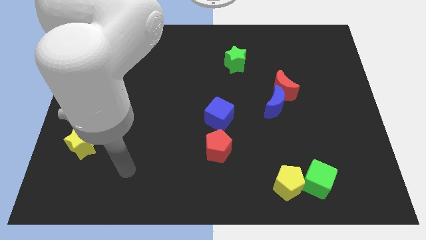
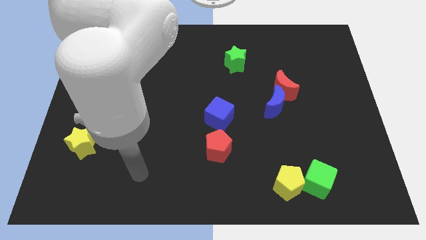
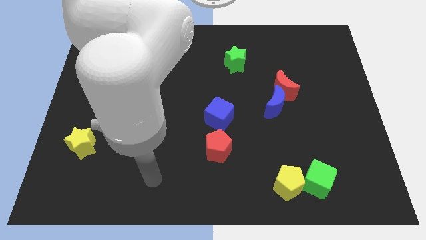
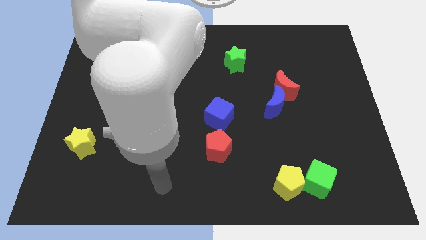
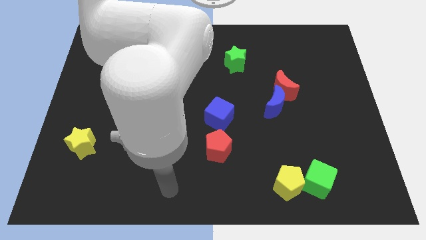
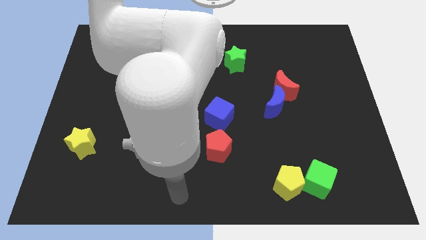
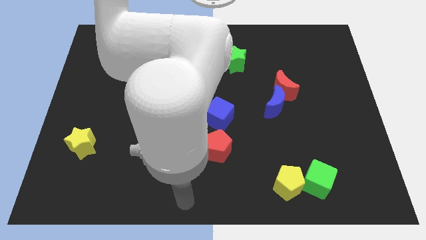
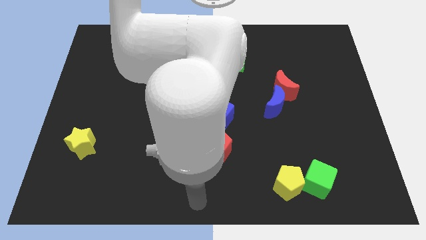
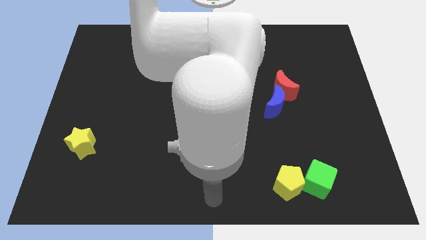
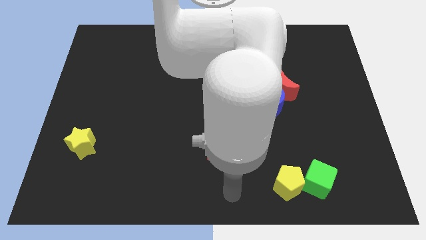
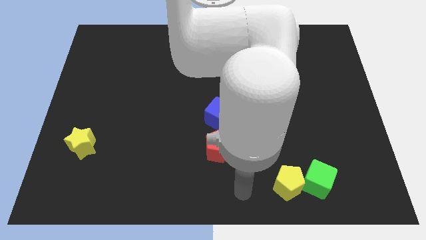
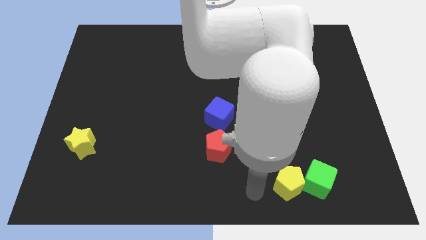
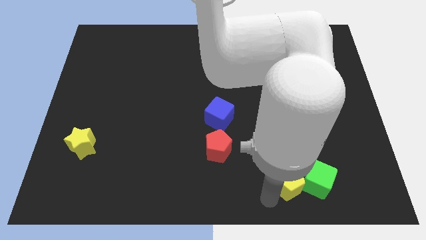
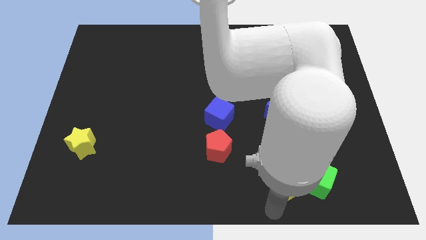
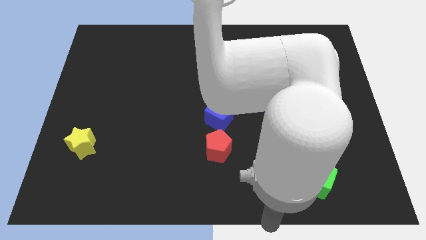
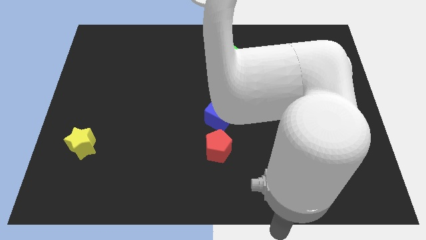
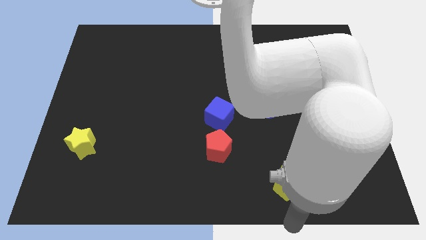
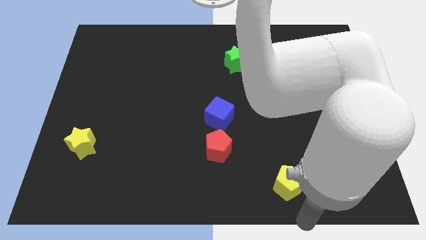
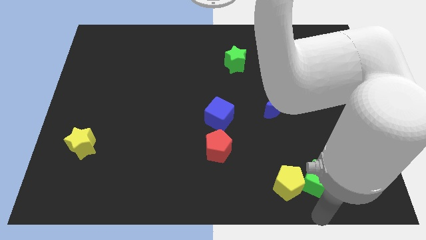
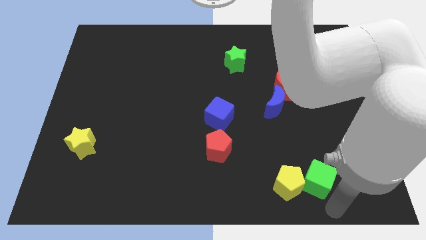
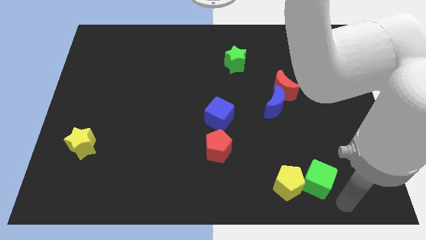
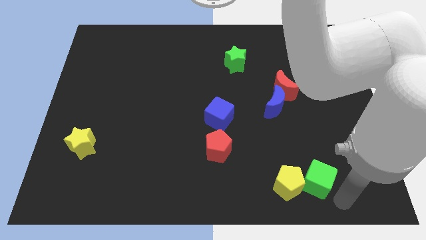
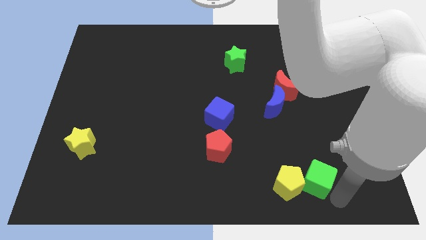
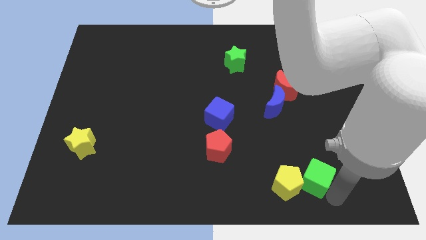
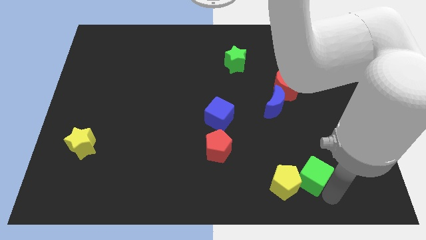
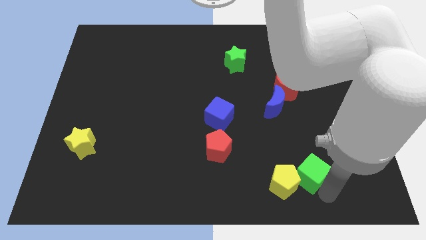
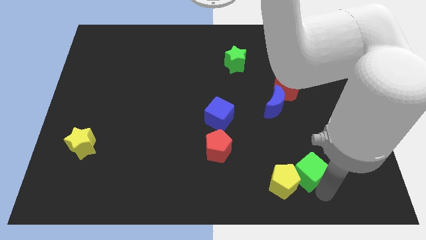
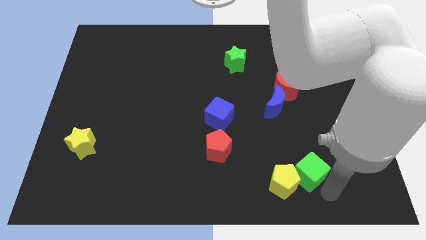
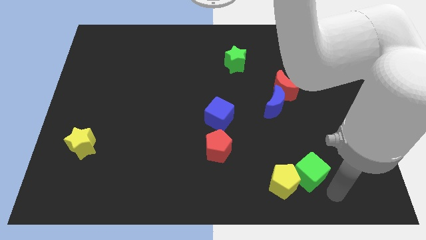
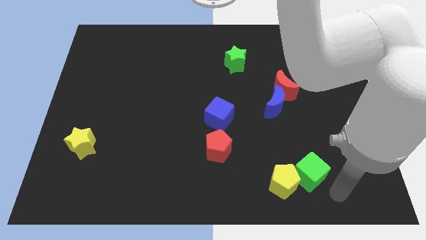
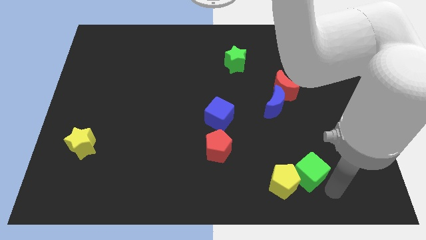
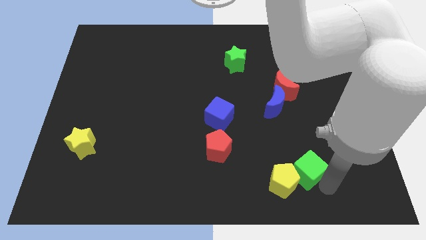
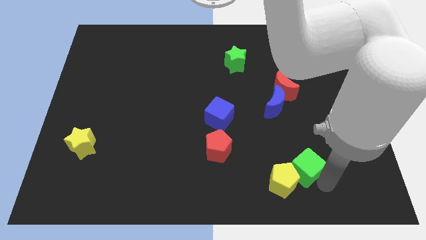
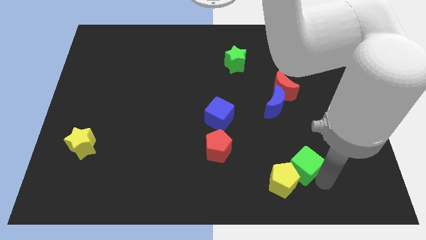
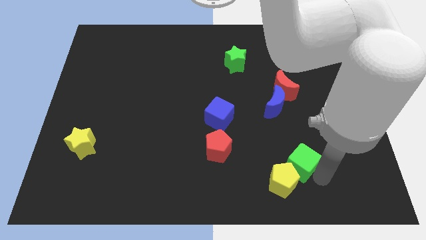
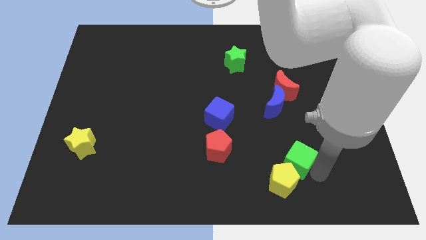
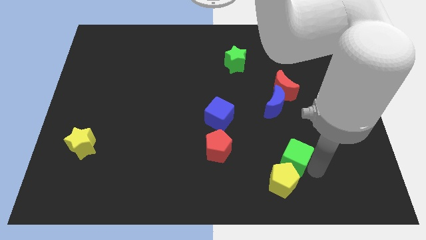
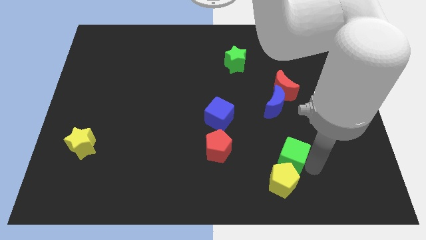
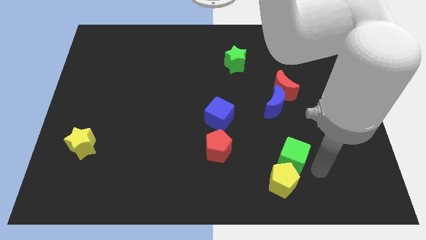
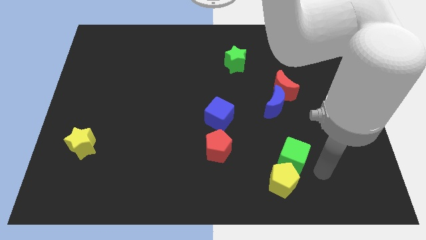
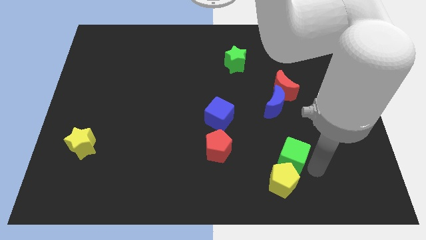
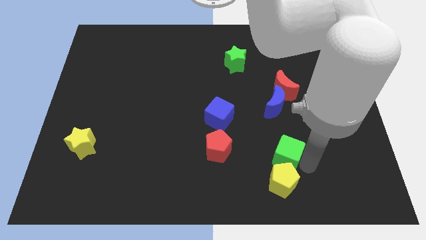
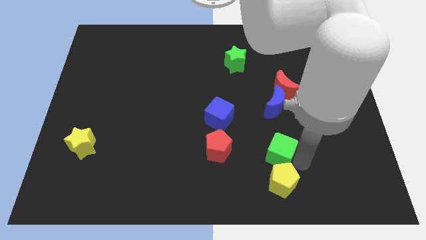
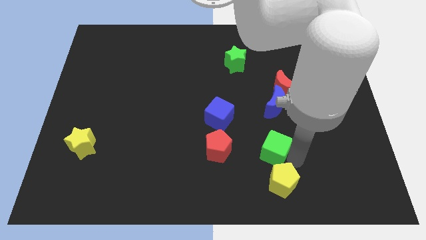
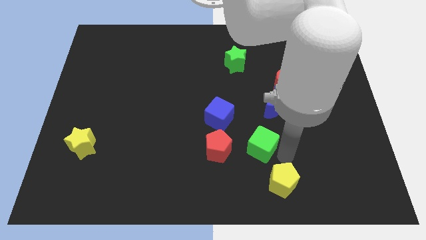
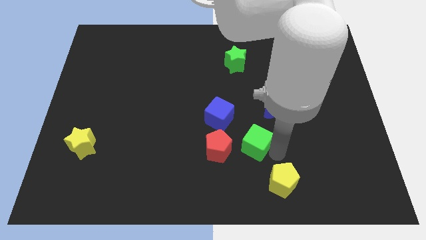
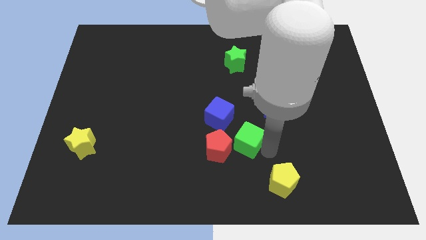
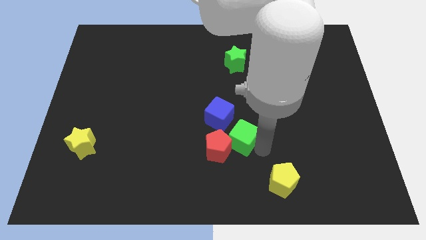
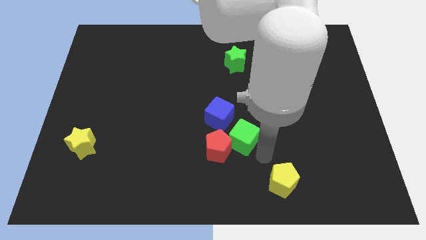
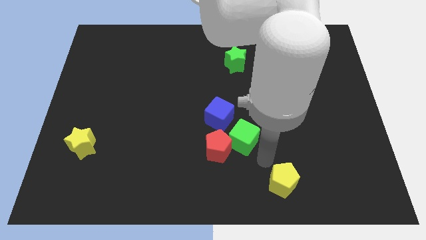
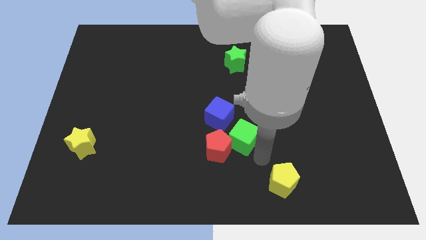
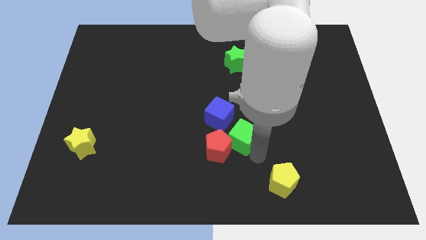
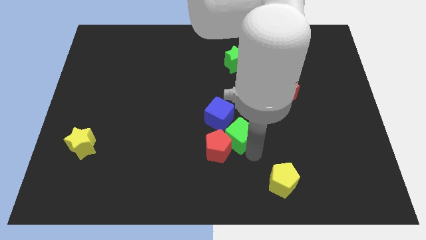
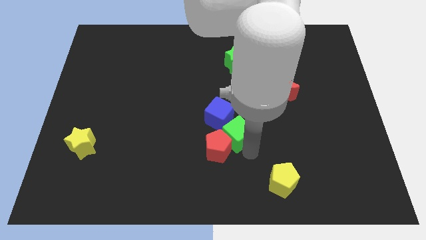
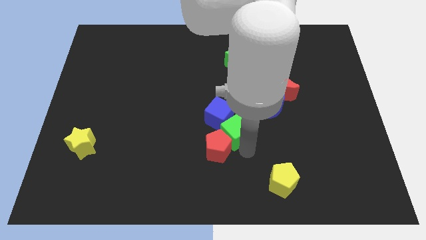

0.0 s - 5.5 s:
slide the green cube close to the blue cube
